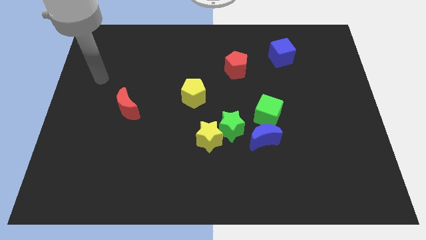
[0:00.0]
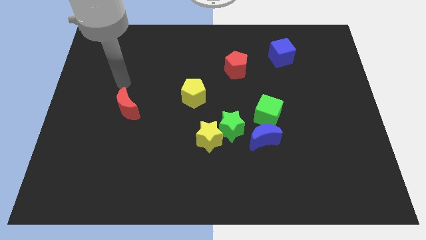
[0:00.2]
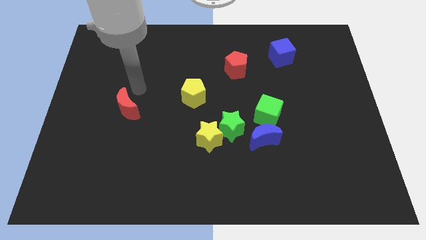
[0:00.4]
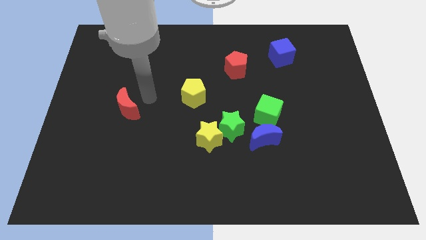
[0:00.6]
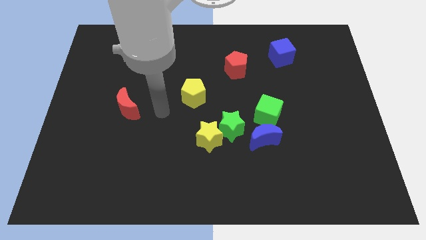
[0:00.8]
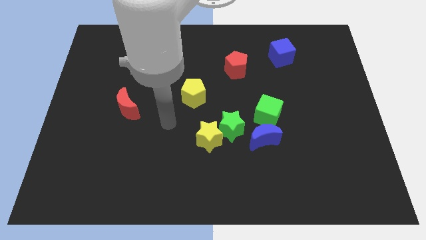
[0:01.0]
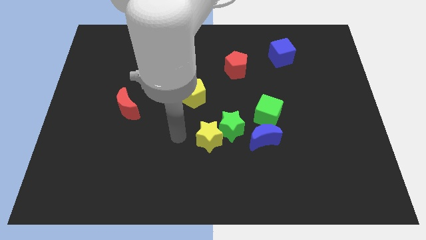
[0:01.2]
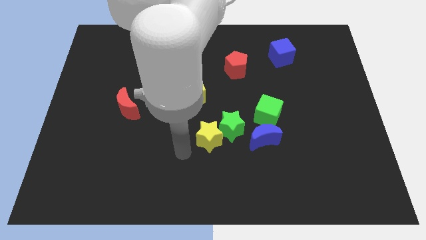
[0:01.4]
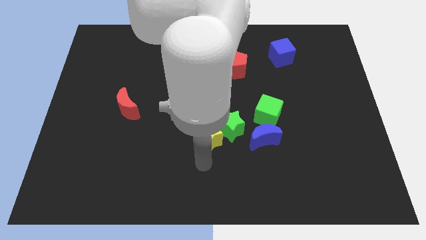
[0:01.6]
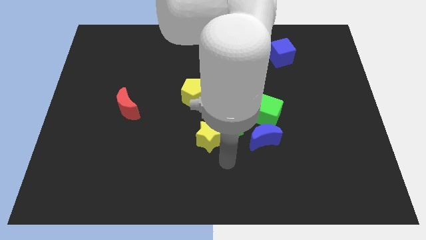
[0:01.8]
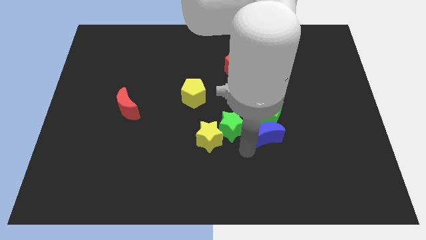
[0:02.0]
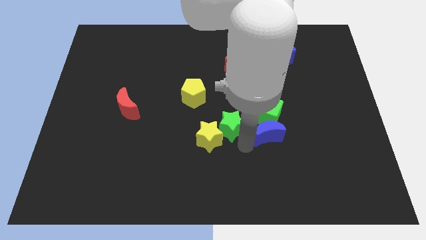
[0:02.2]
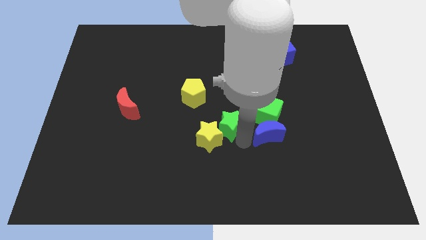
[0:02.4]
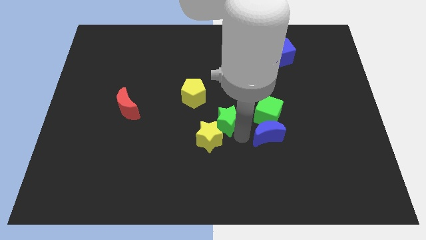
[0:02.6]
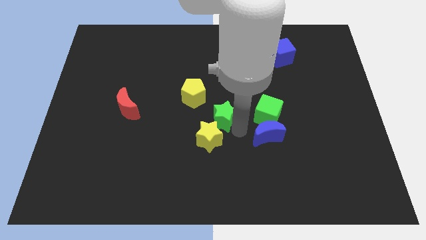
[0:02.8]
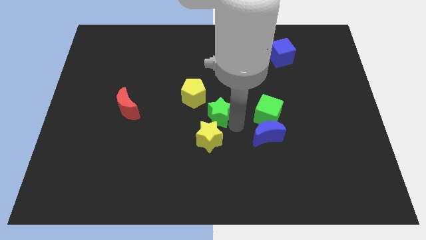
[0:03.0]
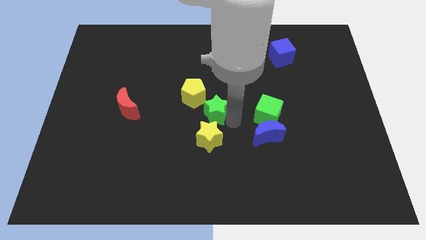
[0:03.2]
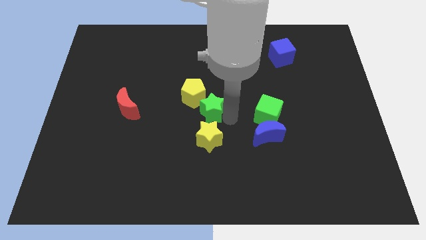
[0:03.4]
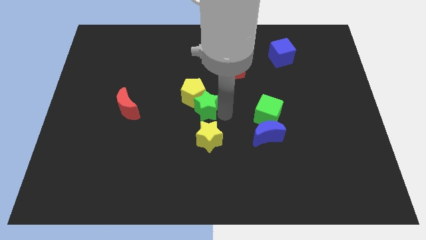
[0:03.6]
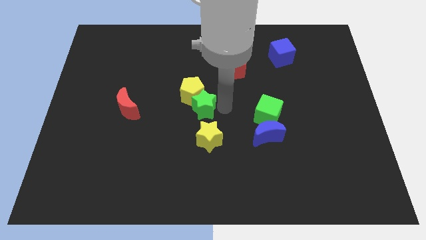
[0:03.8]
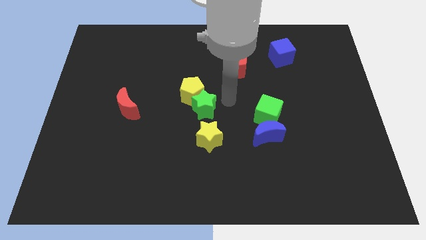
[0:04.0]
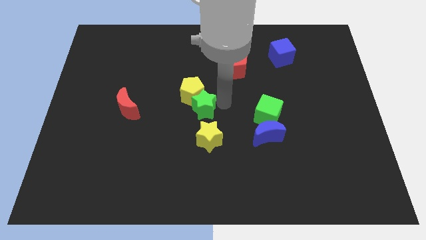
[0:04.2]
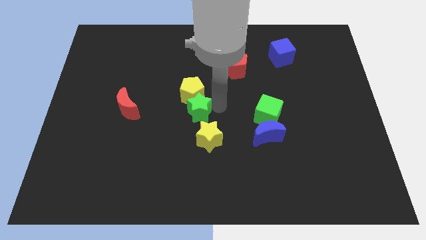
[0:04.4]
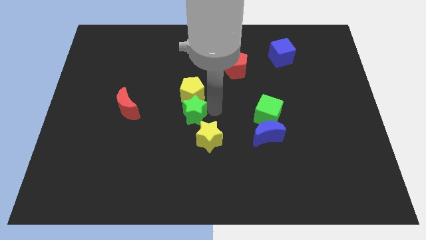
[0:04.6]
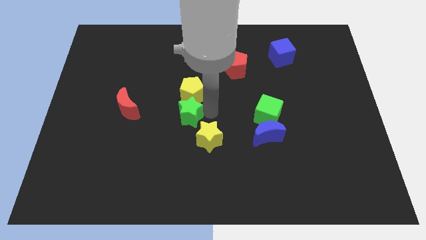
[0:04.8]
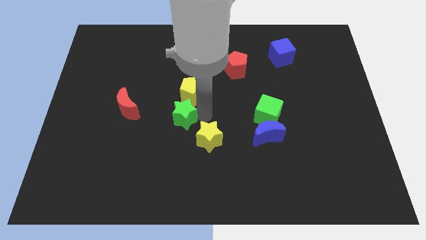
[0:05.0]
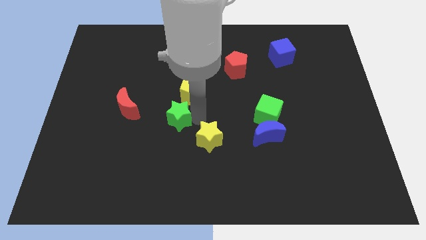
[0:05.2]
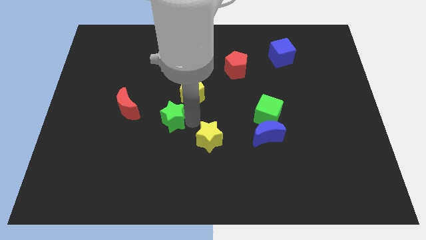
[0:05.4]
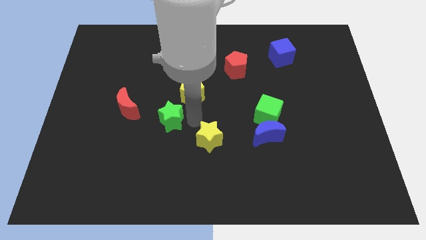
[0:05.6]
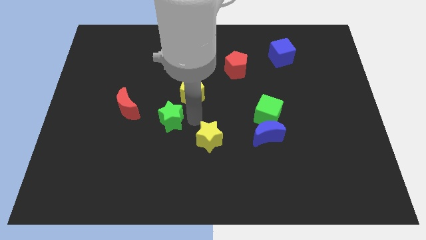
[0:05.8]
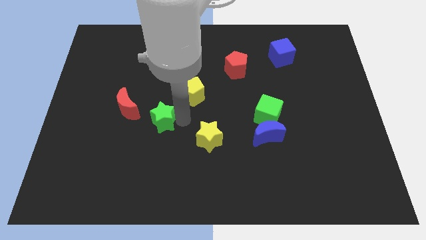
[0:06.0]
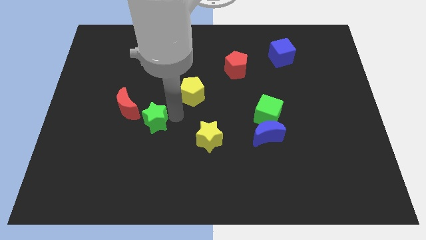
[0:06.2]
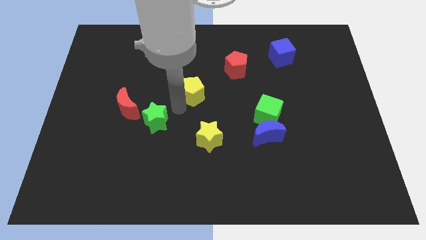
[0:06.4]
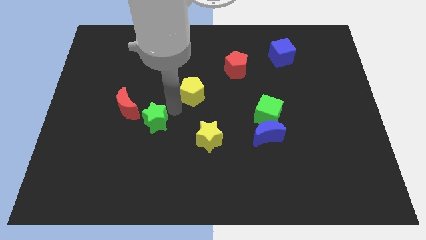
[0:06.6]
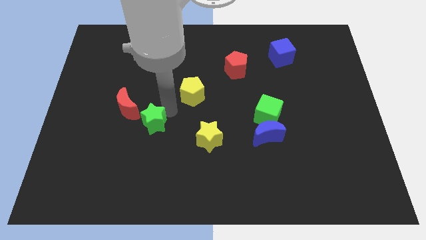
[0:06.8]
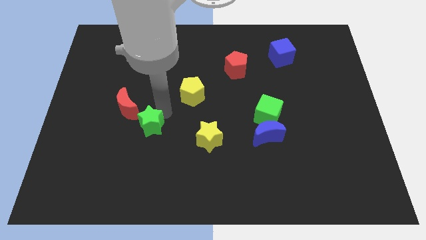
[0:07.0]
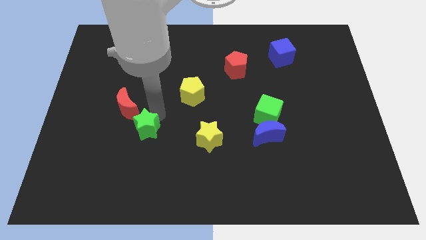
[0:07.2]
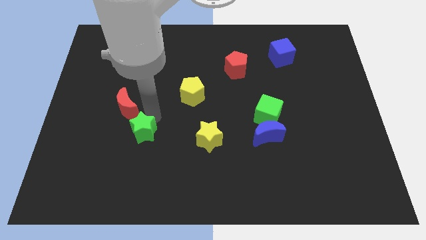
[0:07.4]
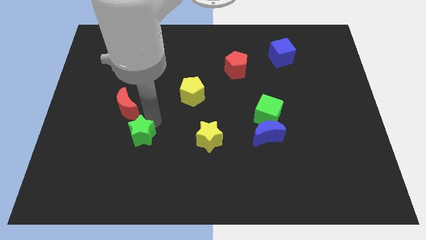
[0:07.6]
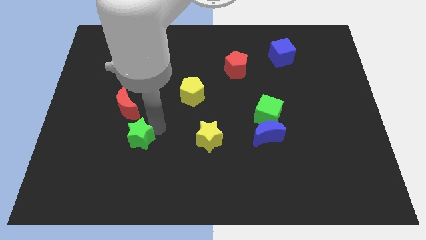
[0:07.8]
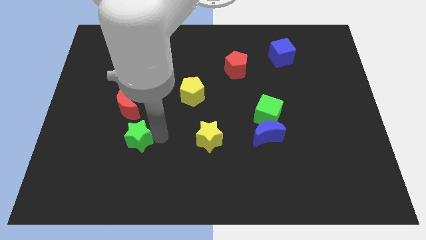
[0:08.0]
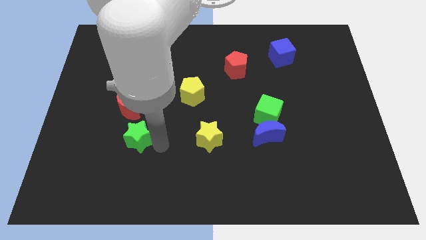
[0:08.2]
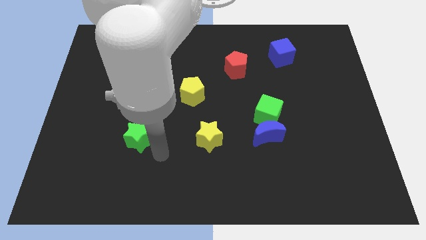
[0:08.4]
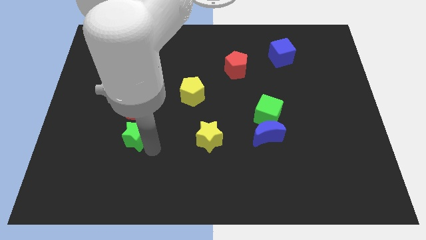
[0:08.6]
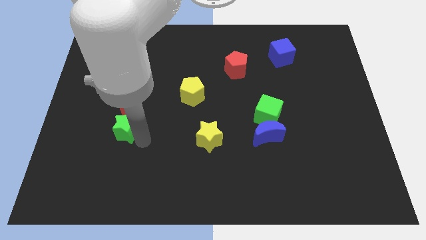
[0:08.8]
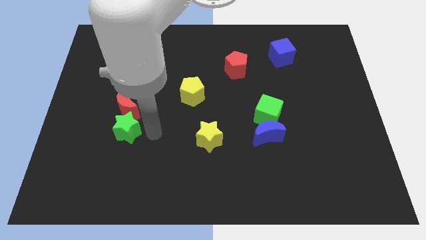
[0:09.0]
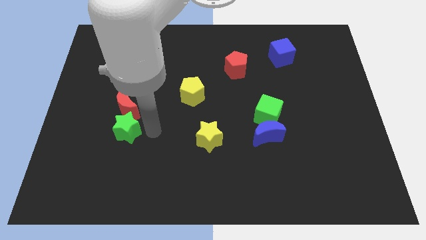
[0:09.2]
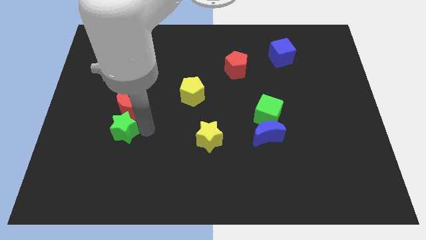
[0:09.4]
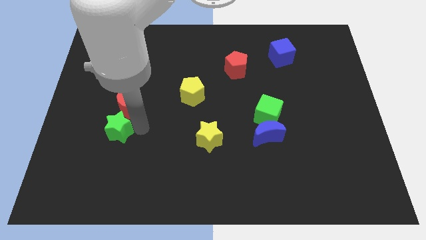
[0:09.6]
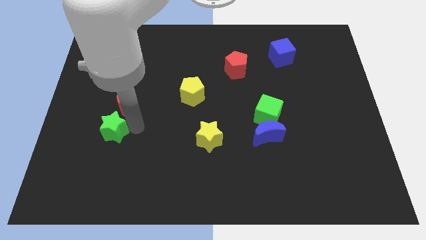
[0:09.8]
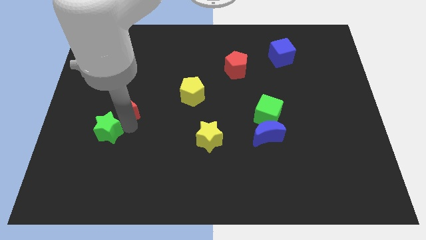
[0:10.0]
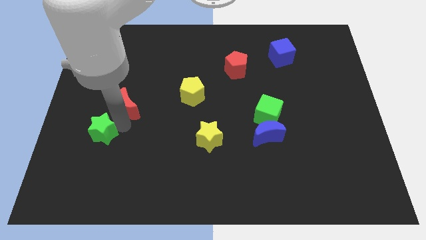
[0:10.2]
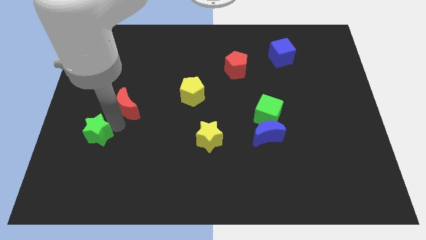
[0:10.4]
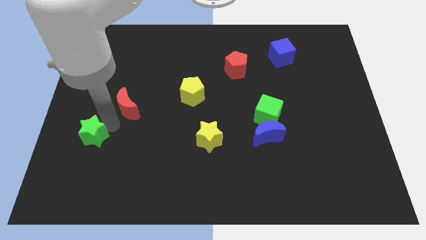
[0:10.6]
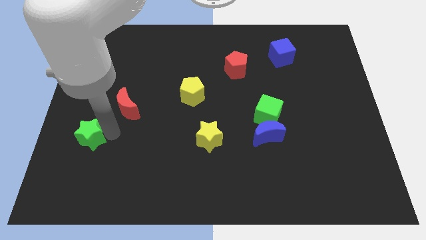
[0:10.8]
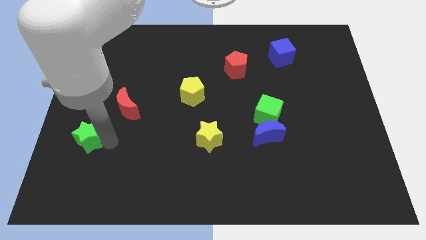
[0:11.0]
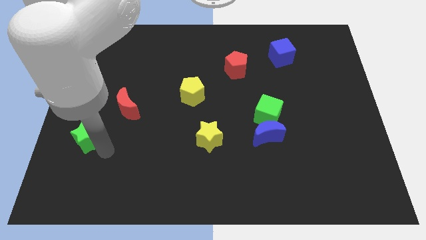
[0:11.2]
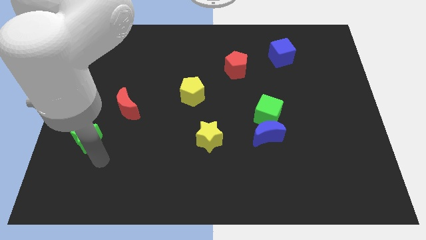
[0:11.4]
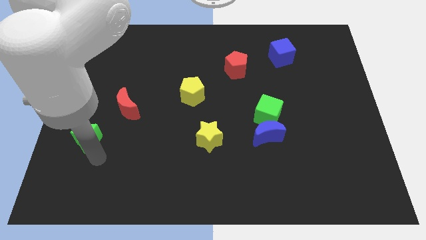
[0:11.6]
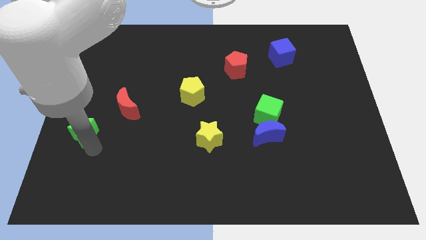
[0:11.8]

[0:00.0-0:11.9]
put the green star to the left side of the board

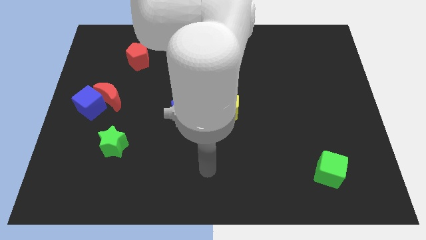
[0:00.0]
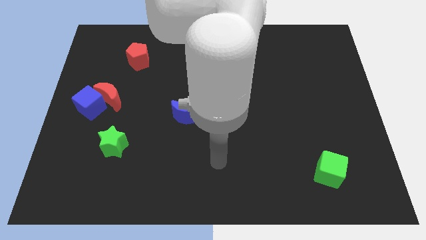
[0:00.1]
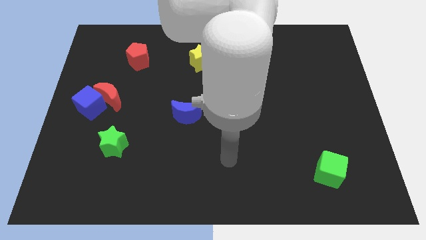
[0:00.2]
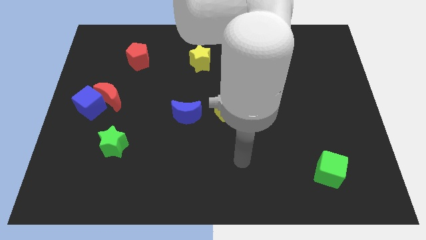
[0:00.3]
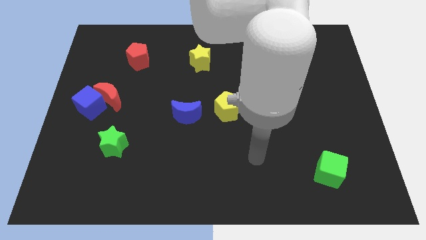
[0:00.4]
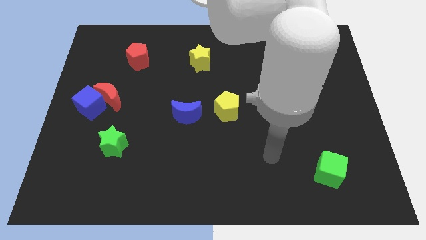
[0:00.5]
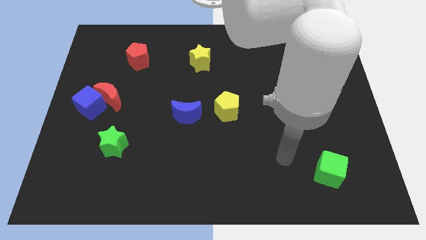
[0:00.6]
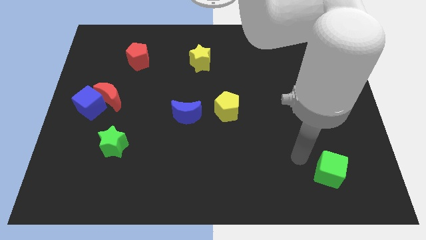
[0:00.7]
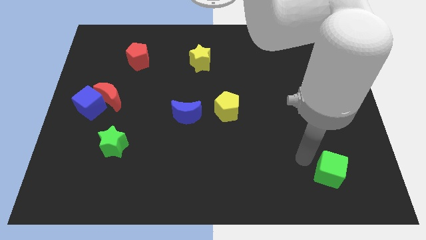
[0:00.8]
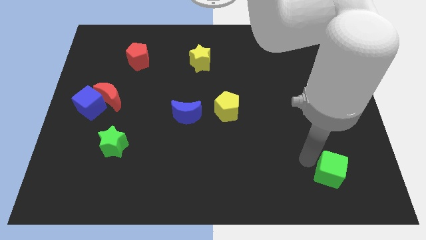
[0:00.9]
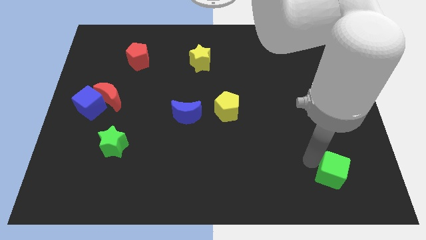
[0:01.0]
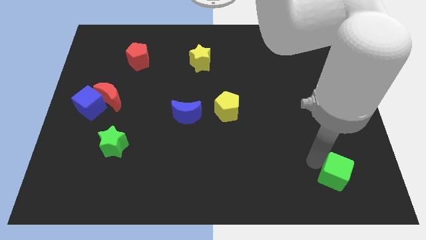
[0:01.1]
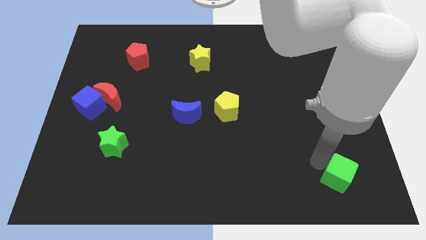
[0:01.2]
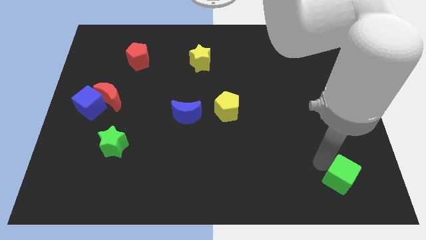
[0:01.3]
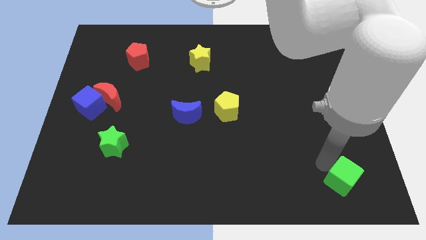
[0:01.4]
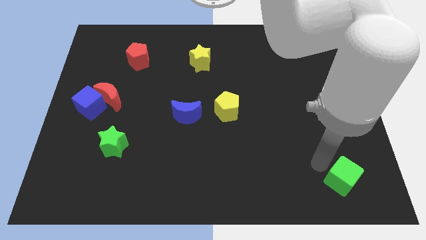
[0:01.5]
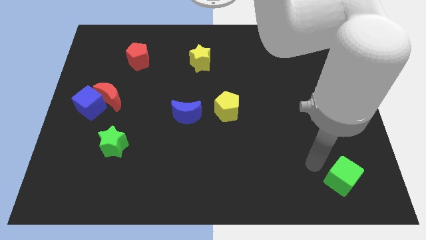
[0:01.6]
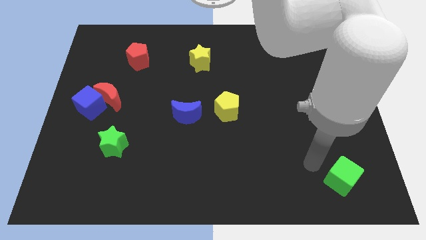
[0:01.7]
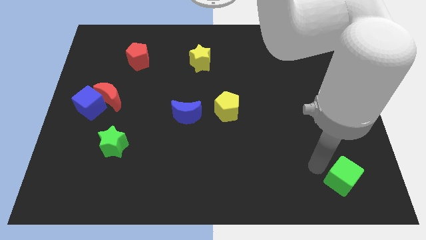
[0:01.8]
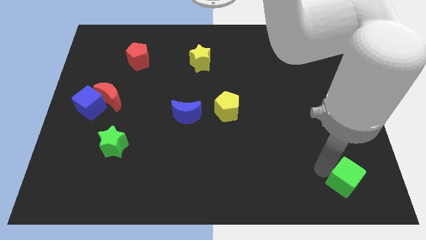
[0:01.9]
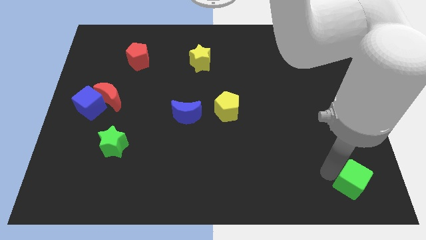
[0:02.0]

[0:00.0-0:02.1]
move the green cube to the bottom right of the board
